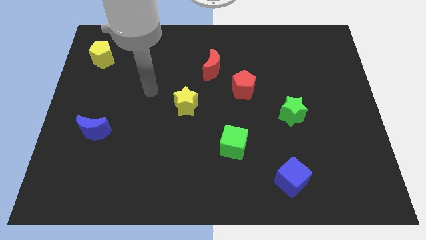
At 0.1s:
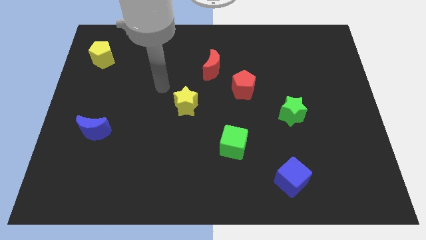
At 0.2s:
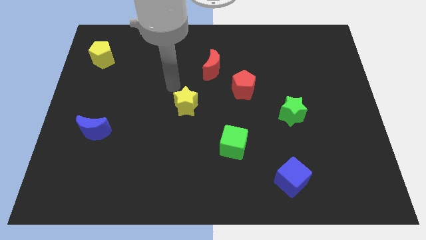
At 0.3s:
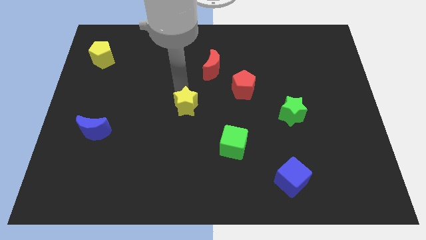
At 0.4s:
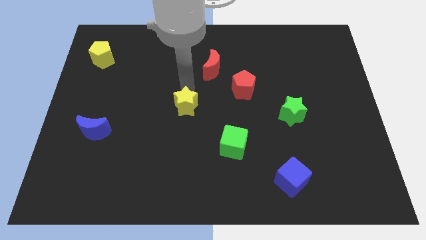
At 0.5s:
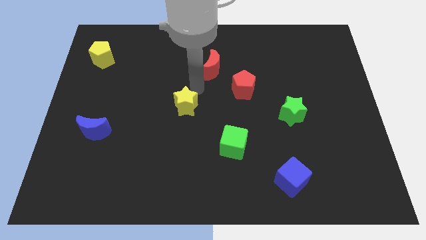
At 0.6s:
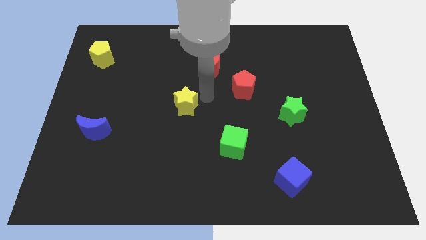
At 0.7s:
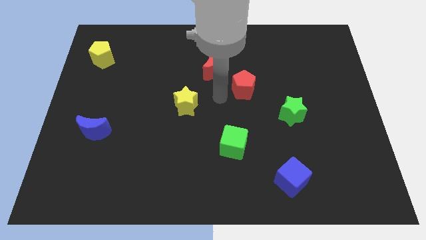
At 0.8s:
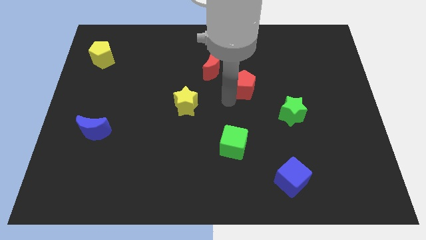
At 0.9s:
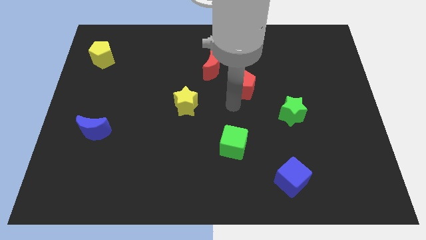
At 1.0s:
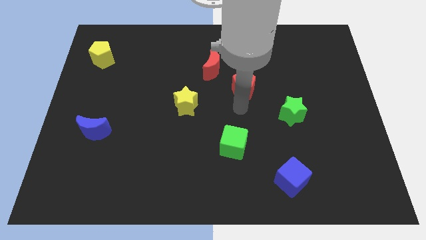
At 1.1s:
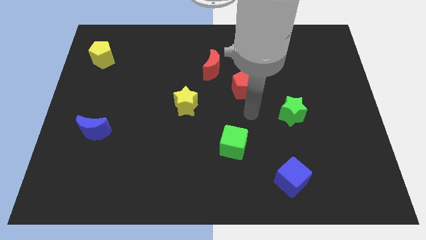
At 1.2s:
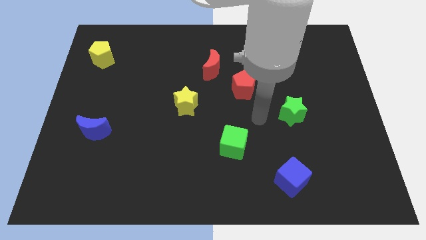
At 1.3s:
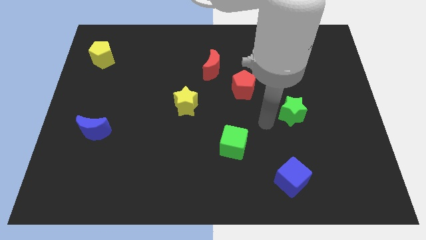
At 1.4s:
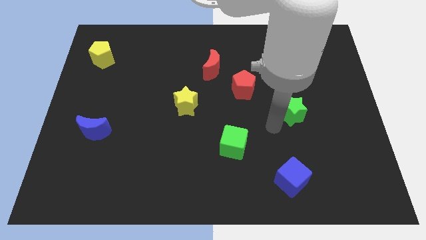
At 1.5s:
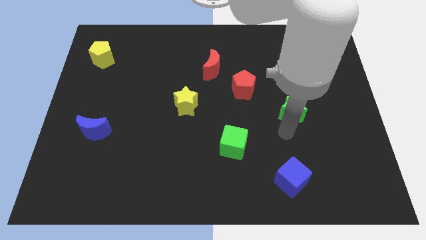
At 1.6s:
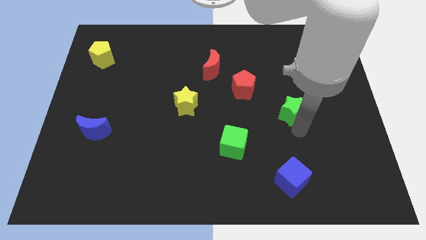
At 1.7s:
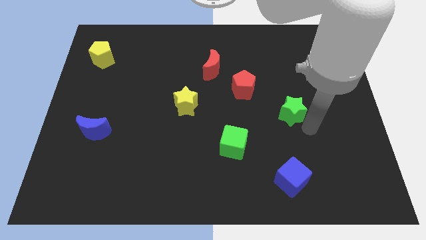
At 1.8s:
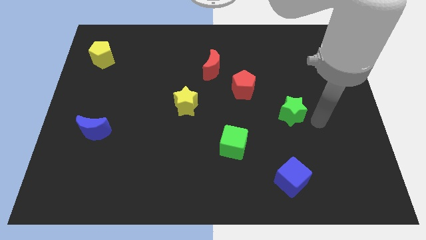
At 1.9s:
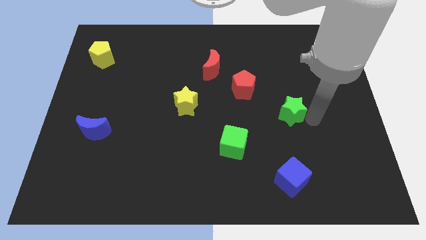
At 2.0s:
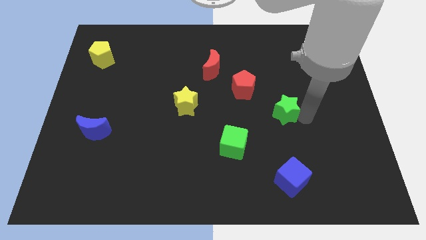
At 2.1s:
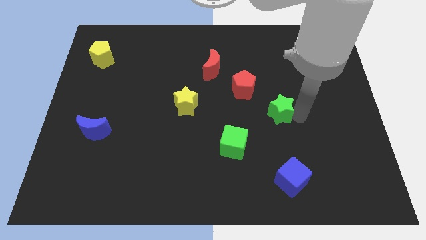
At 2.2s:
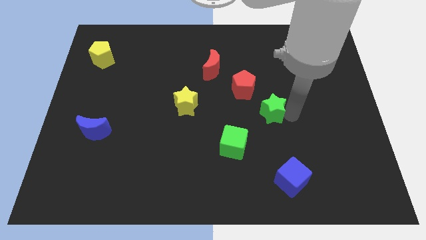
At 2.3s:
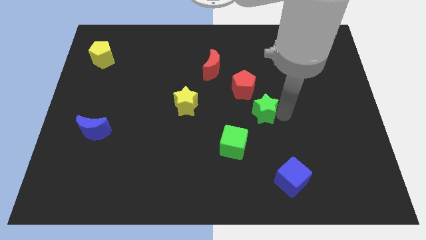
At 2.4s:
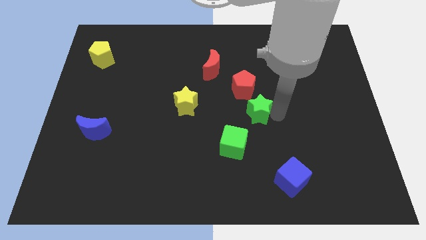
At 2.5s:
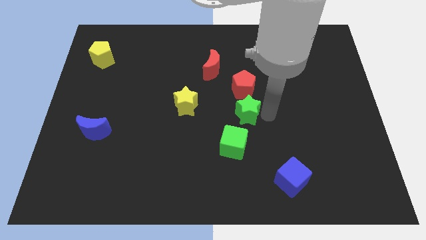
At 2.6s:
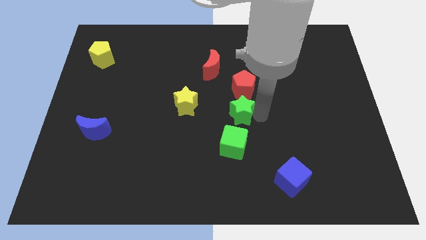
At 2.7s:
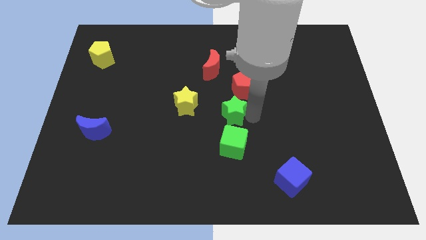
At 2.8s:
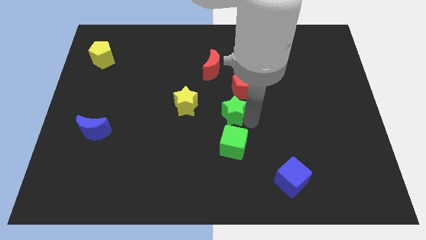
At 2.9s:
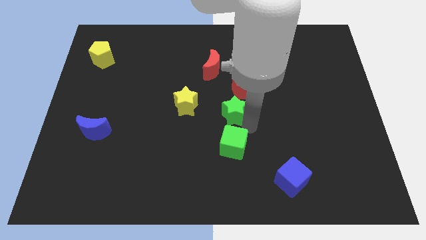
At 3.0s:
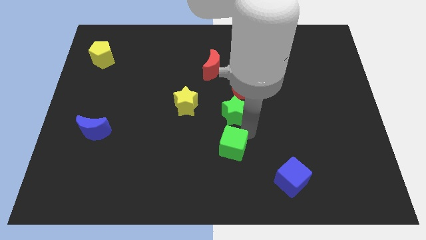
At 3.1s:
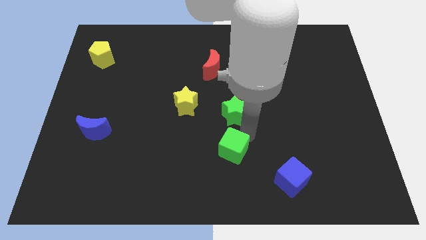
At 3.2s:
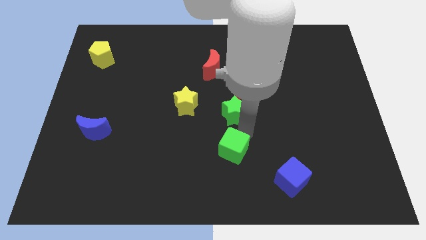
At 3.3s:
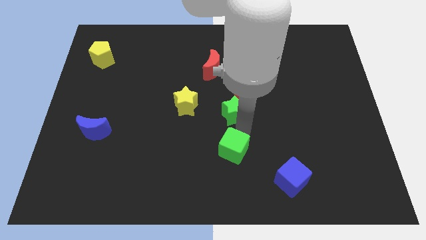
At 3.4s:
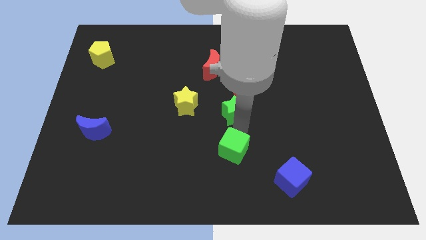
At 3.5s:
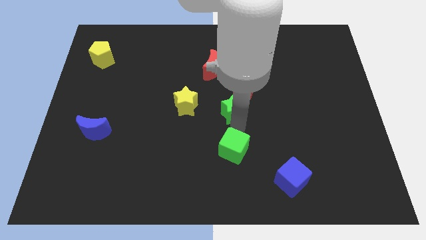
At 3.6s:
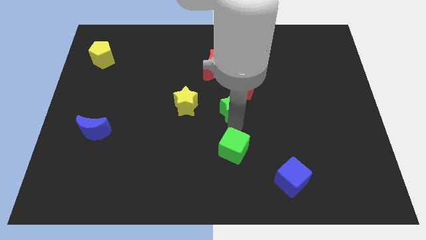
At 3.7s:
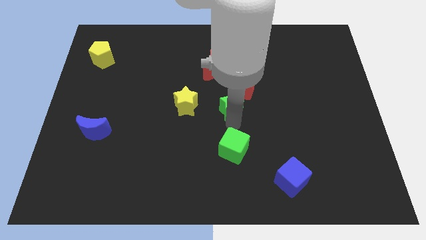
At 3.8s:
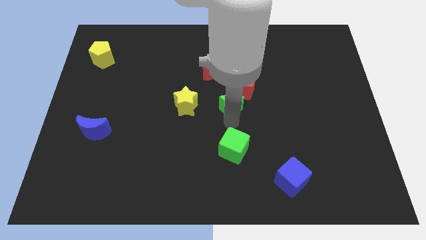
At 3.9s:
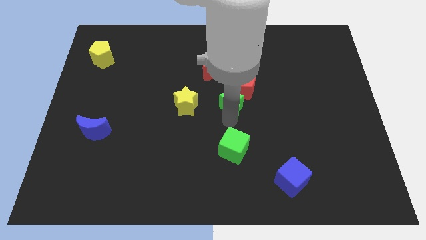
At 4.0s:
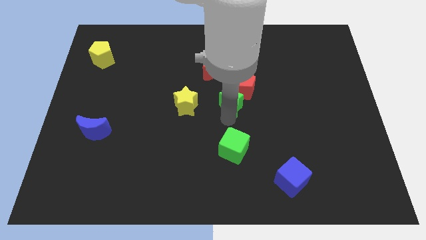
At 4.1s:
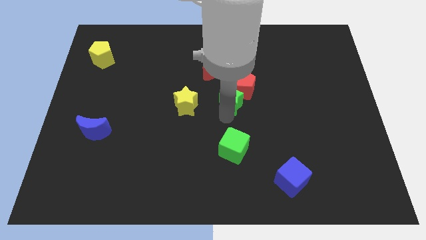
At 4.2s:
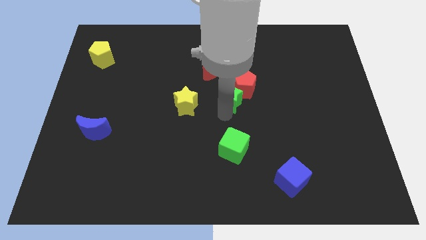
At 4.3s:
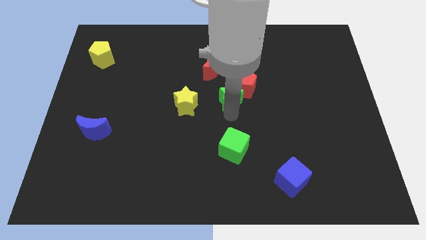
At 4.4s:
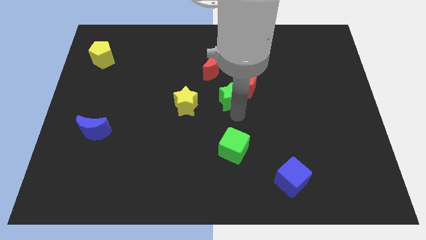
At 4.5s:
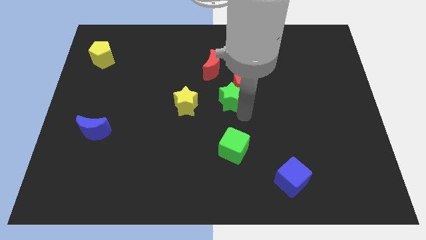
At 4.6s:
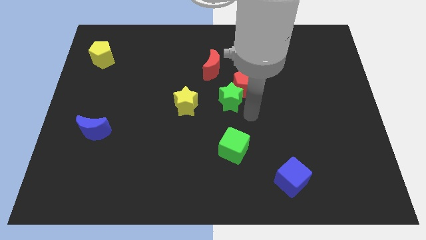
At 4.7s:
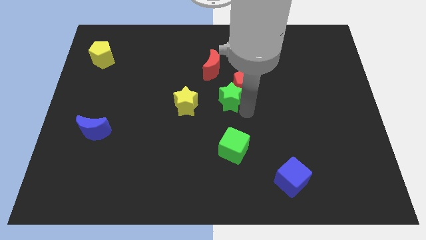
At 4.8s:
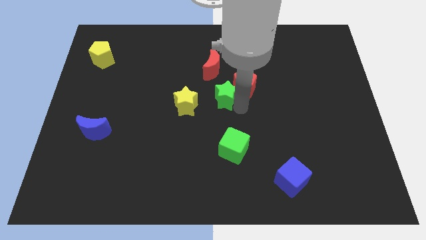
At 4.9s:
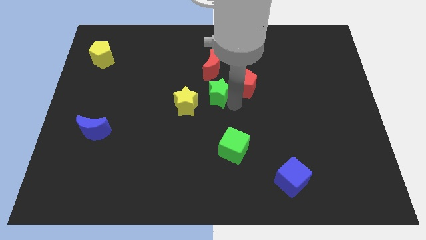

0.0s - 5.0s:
put the green star to the top right of the yellow star
